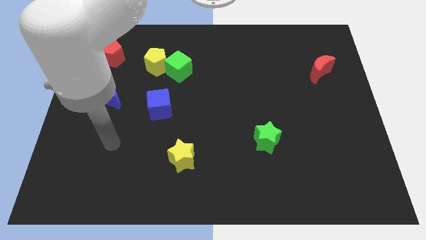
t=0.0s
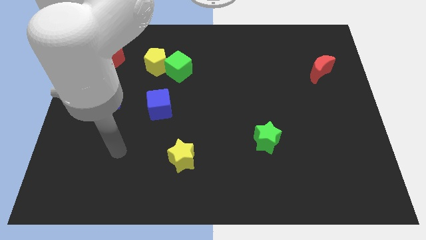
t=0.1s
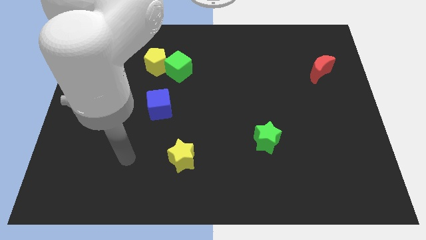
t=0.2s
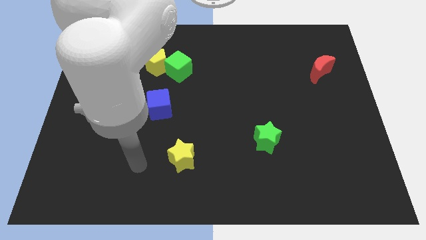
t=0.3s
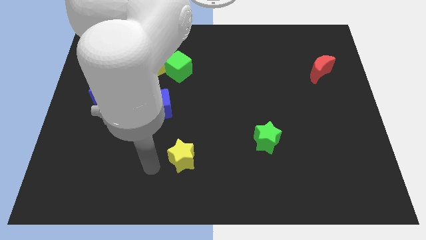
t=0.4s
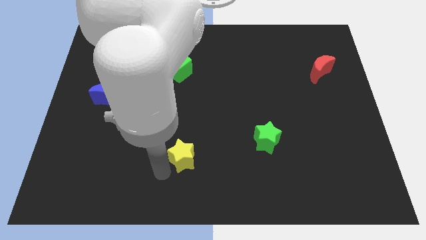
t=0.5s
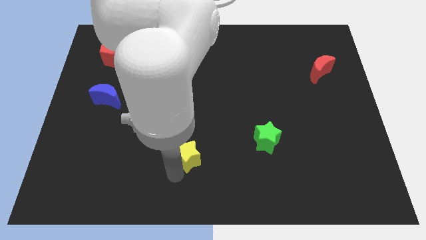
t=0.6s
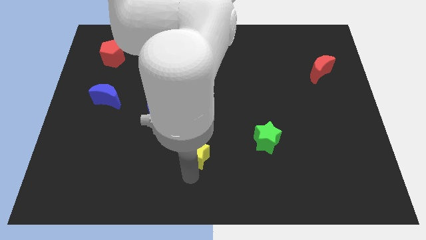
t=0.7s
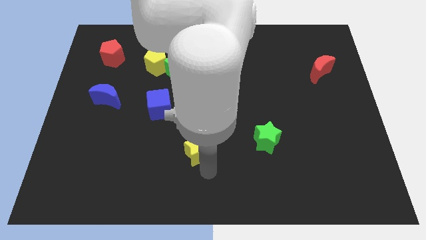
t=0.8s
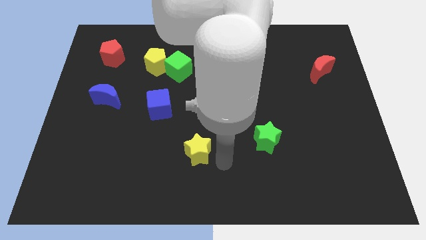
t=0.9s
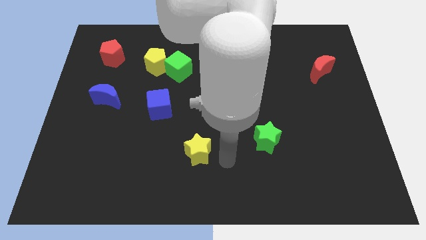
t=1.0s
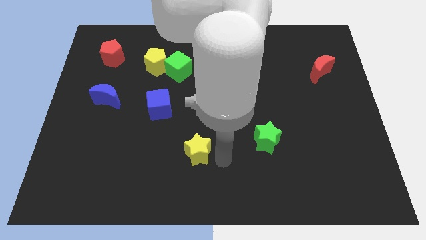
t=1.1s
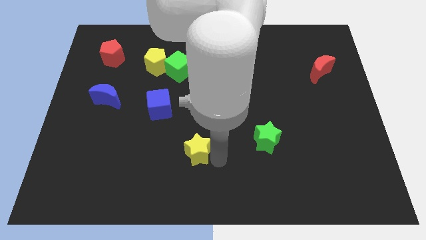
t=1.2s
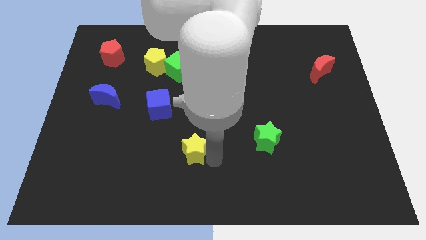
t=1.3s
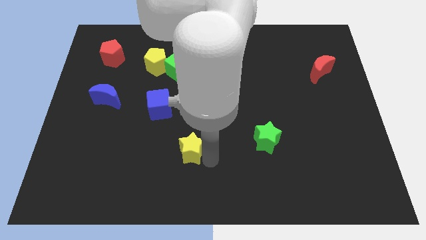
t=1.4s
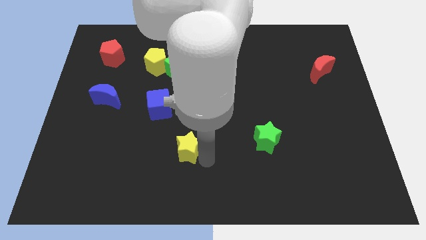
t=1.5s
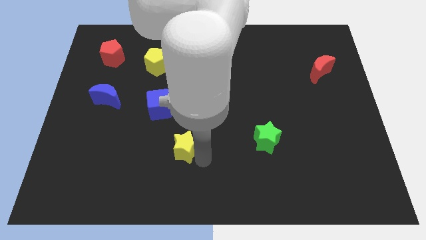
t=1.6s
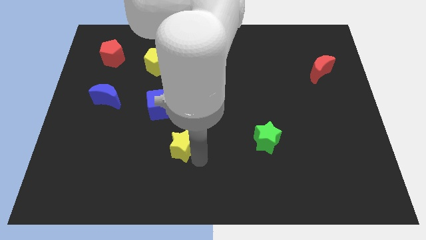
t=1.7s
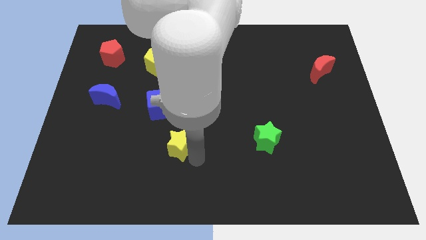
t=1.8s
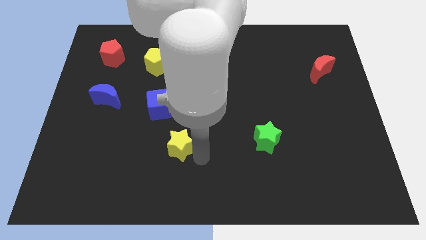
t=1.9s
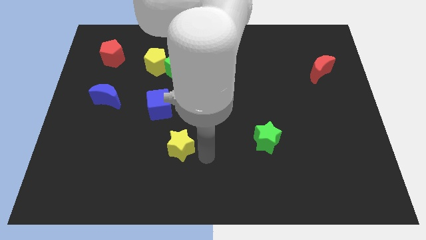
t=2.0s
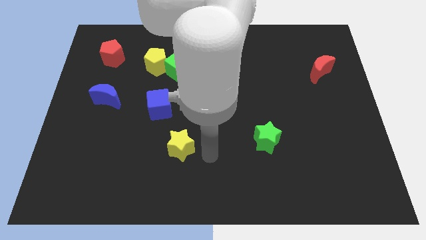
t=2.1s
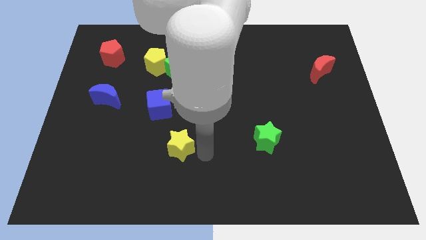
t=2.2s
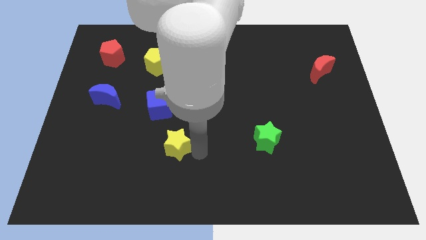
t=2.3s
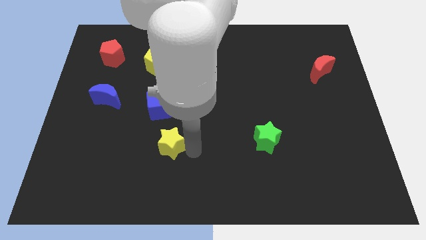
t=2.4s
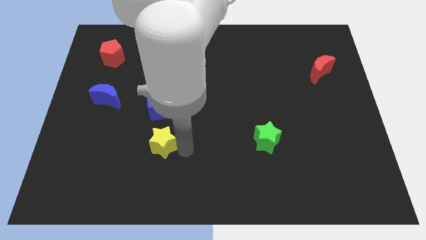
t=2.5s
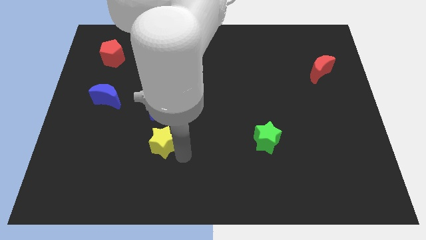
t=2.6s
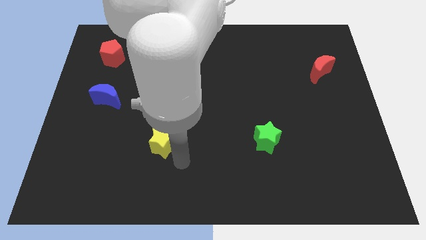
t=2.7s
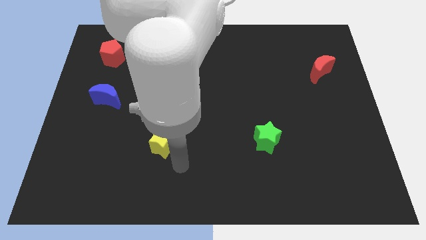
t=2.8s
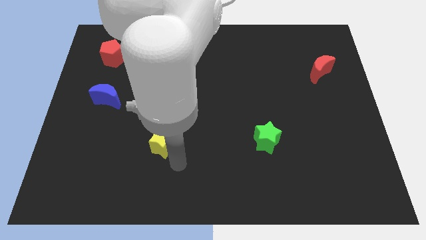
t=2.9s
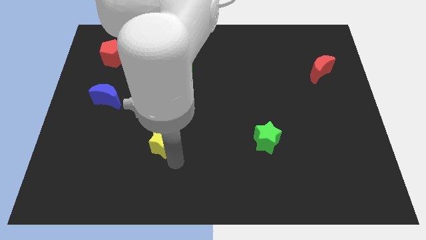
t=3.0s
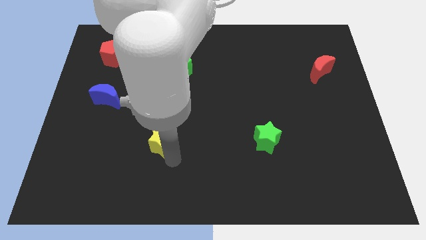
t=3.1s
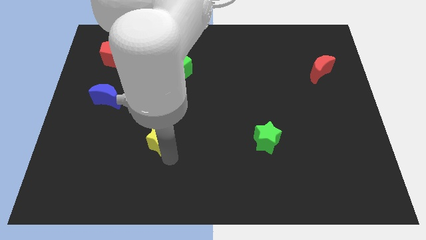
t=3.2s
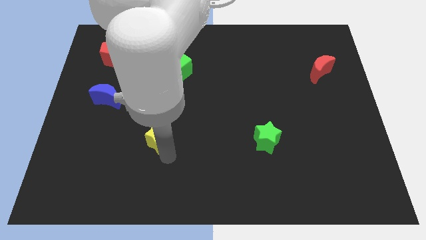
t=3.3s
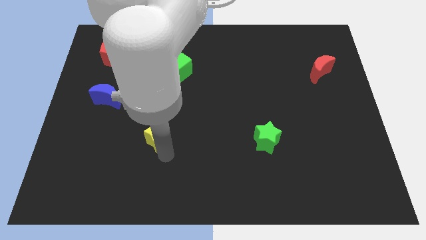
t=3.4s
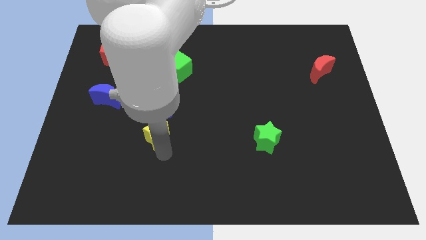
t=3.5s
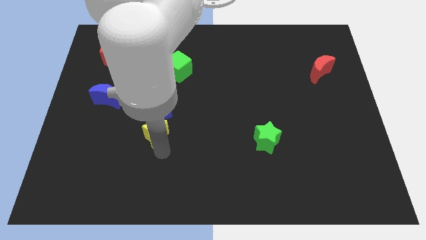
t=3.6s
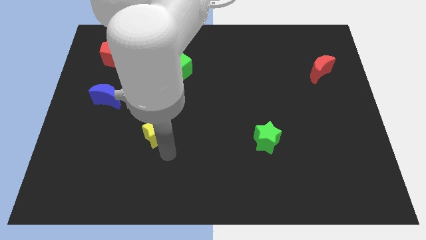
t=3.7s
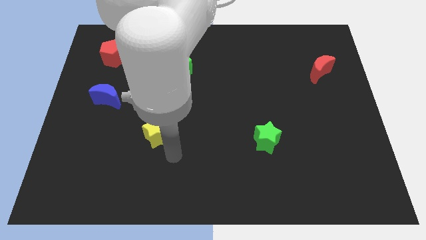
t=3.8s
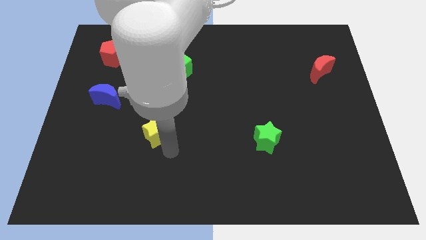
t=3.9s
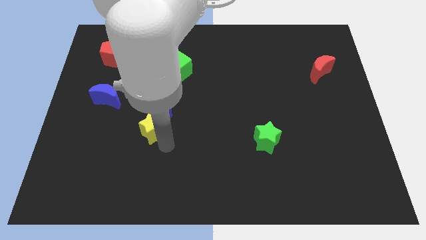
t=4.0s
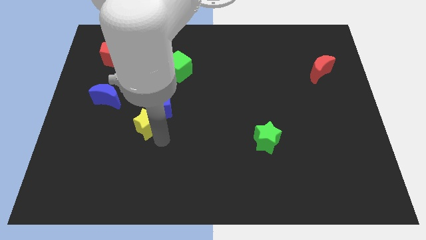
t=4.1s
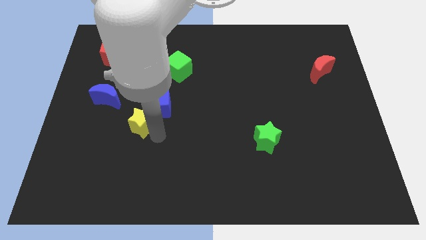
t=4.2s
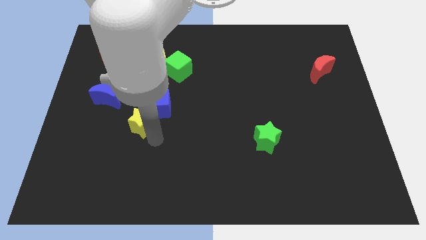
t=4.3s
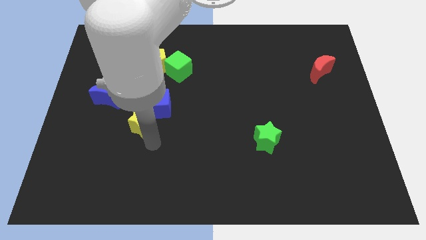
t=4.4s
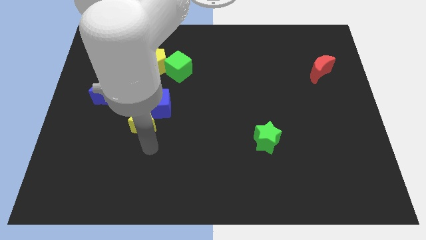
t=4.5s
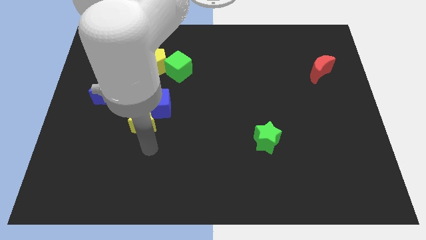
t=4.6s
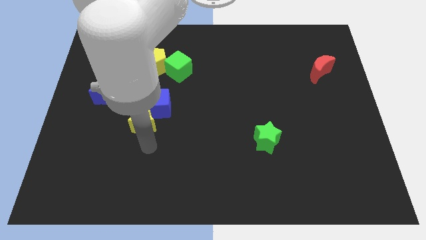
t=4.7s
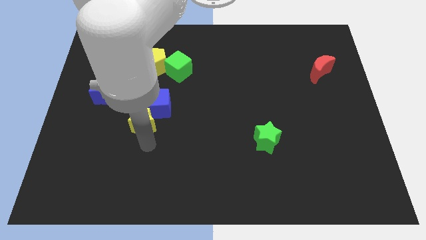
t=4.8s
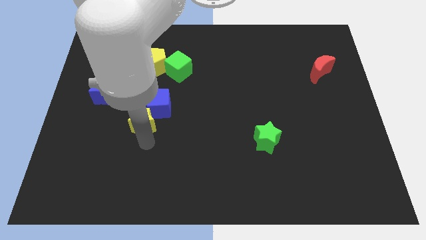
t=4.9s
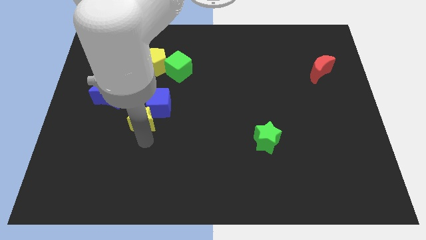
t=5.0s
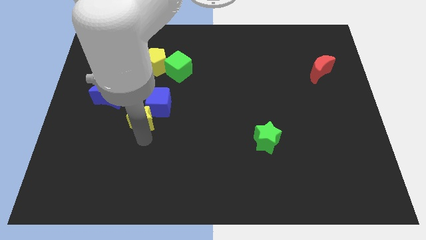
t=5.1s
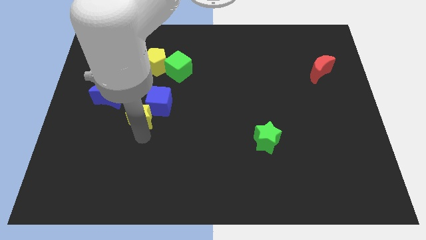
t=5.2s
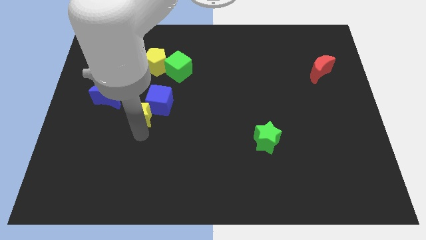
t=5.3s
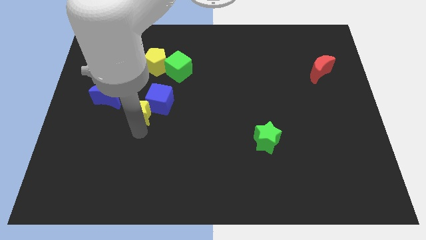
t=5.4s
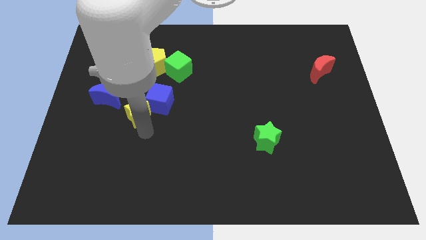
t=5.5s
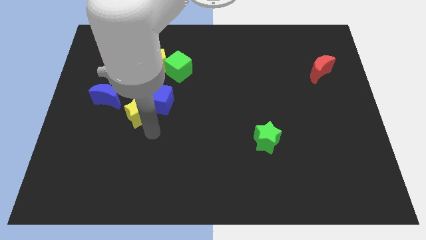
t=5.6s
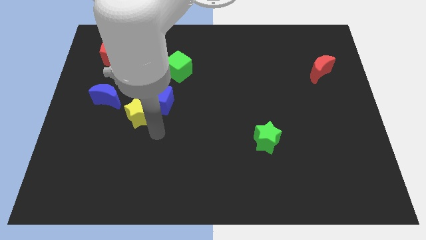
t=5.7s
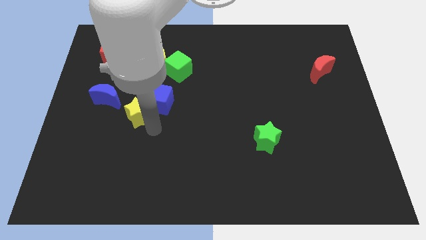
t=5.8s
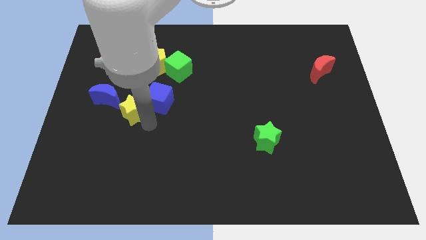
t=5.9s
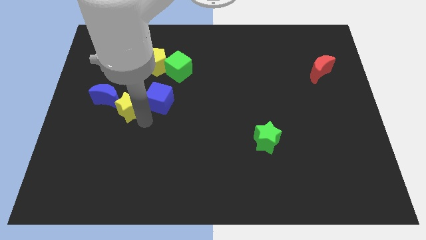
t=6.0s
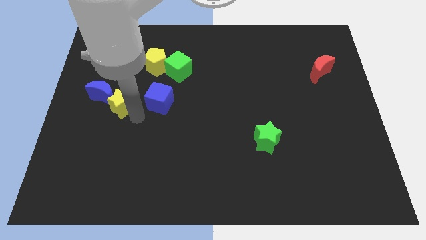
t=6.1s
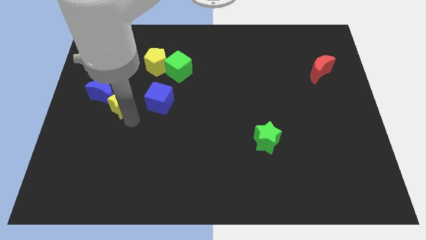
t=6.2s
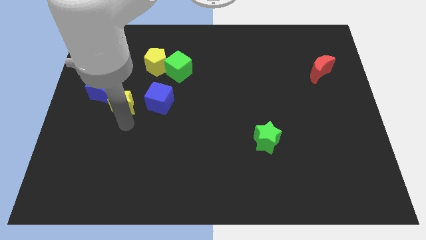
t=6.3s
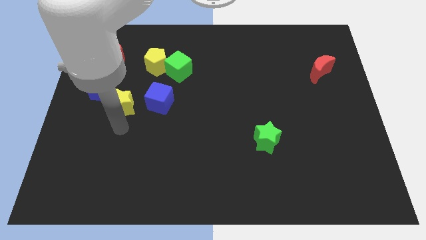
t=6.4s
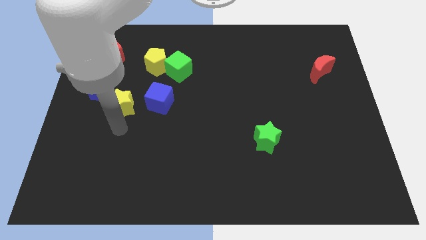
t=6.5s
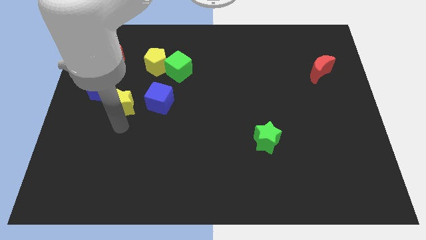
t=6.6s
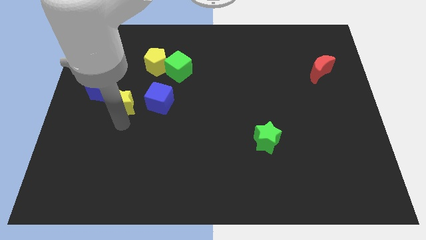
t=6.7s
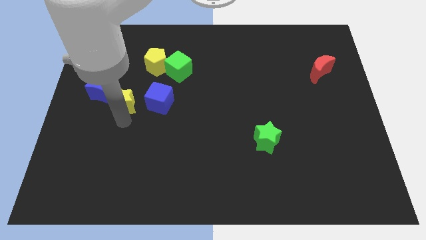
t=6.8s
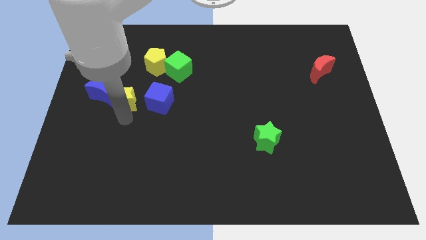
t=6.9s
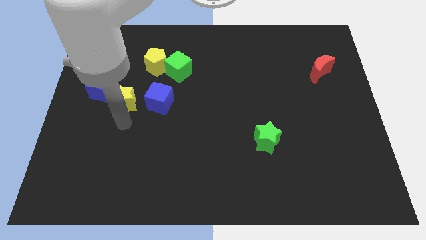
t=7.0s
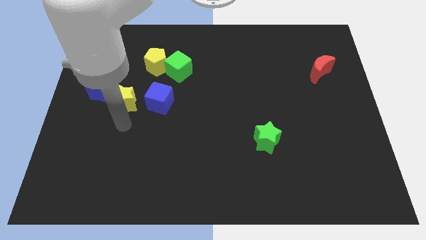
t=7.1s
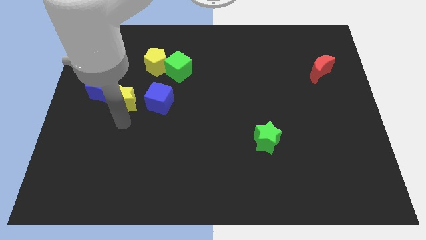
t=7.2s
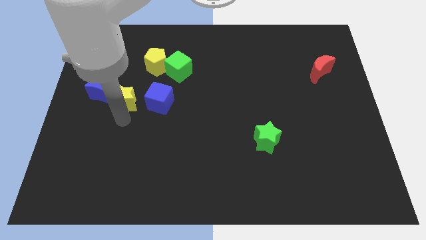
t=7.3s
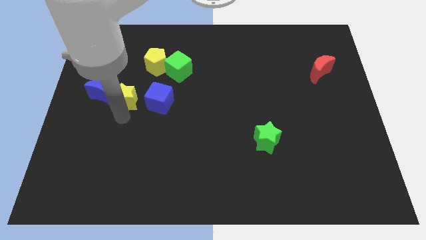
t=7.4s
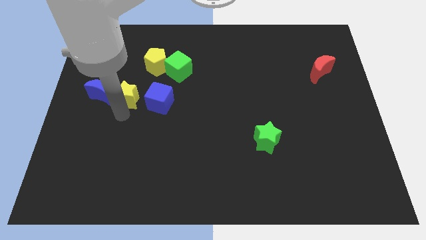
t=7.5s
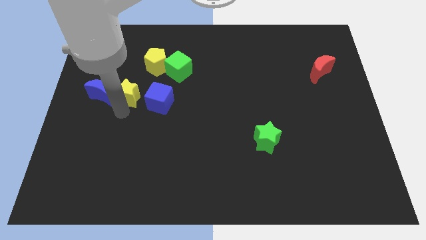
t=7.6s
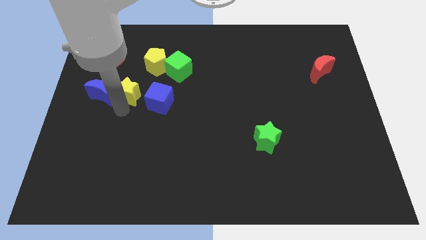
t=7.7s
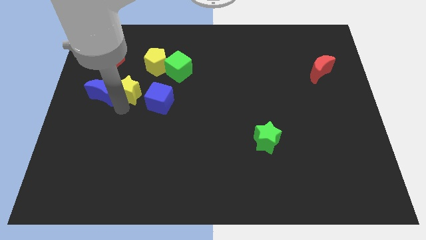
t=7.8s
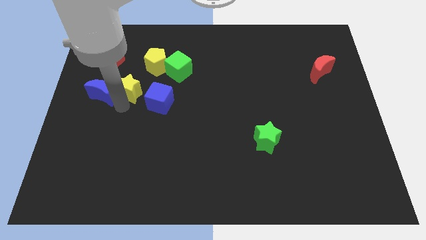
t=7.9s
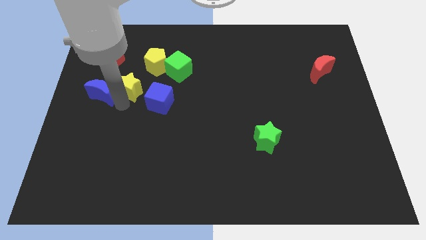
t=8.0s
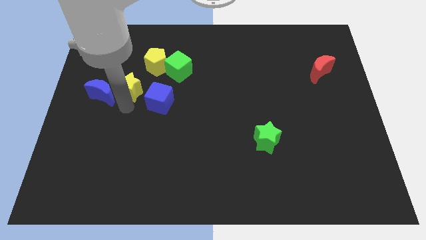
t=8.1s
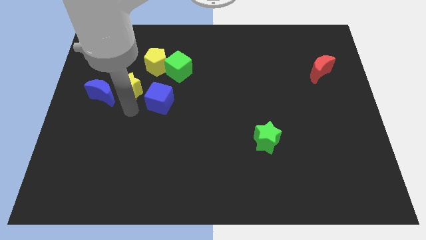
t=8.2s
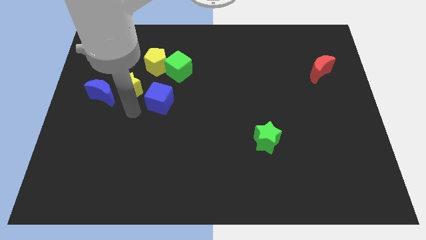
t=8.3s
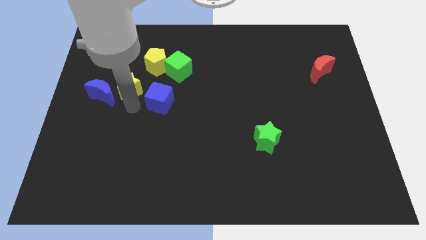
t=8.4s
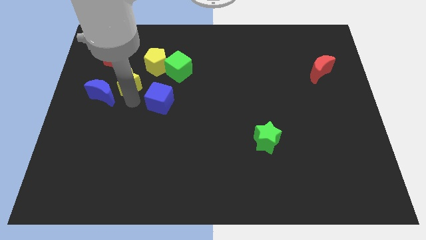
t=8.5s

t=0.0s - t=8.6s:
move the yellow star to the bottom right side of the red pentagon
